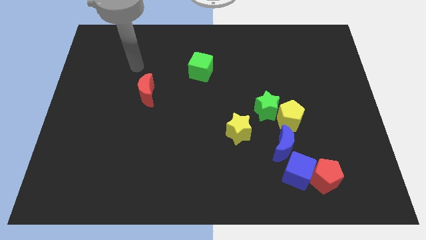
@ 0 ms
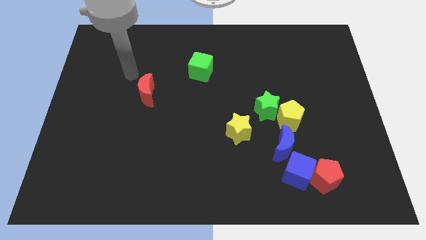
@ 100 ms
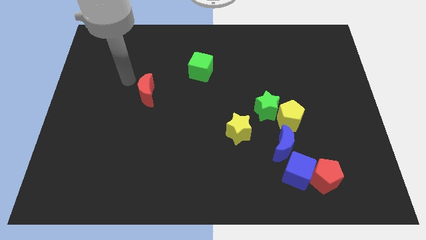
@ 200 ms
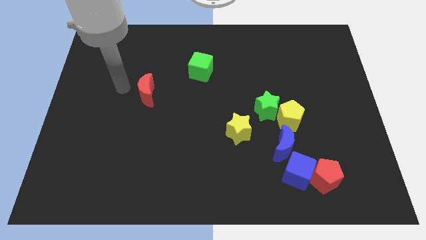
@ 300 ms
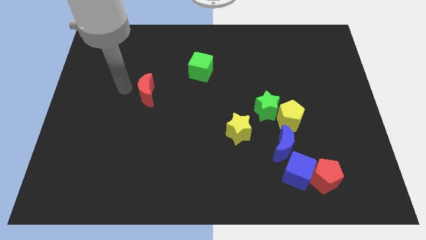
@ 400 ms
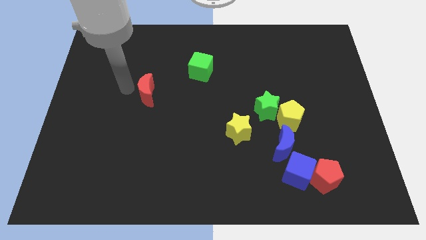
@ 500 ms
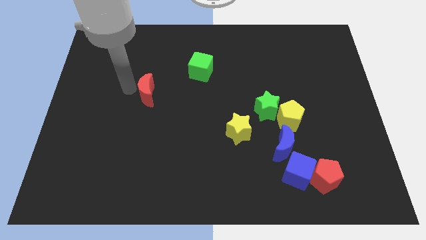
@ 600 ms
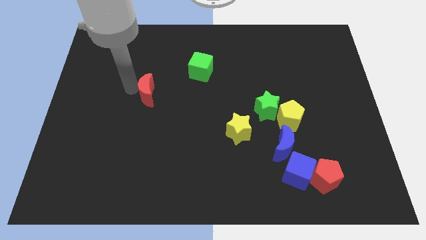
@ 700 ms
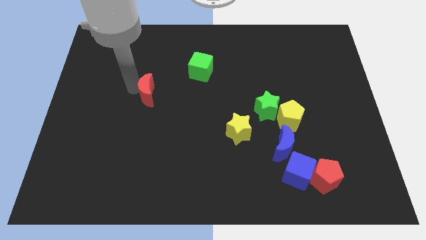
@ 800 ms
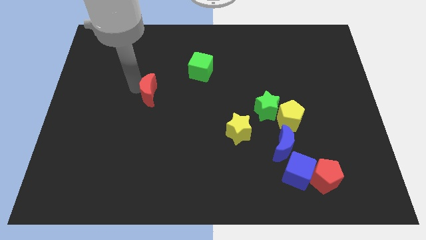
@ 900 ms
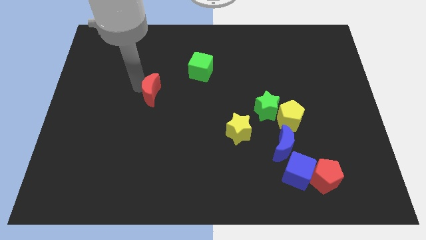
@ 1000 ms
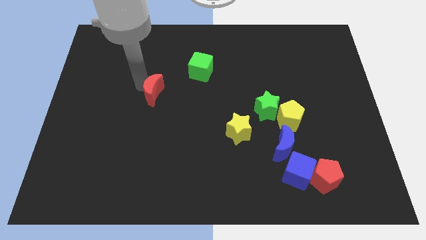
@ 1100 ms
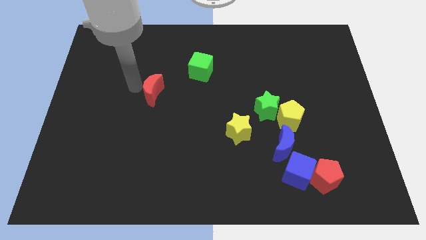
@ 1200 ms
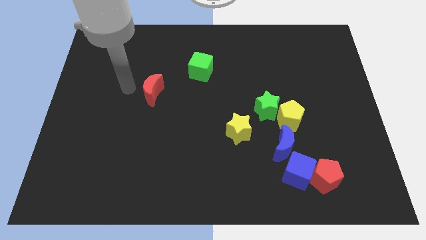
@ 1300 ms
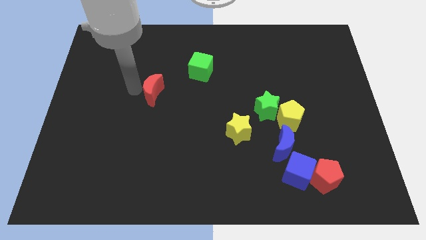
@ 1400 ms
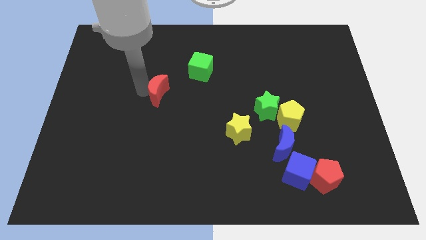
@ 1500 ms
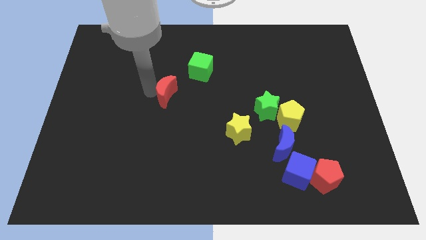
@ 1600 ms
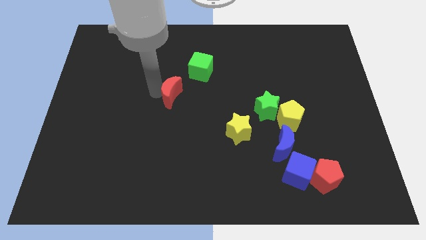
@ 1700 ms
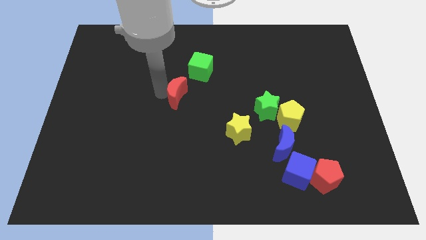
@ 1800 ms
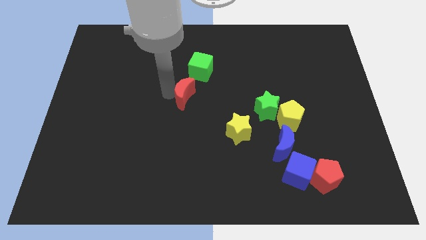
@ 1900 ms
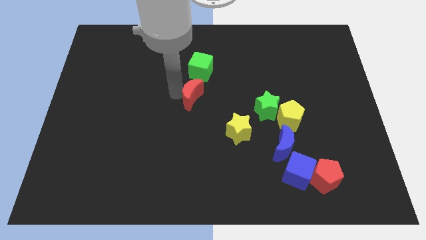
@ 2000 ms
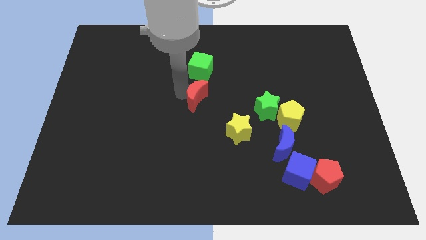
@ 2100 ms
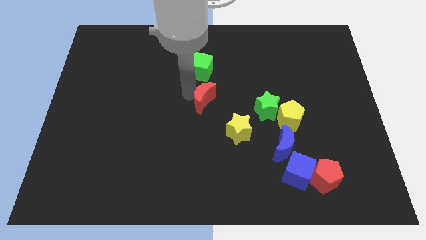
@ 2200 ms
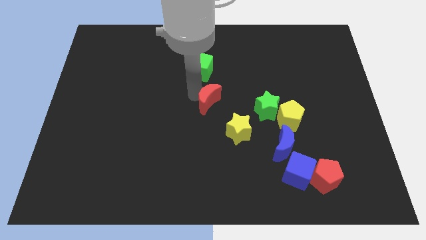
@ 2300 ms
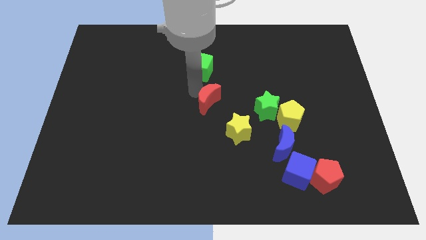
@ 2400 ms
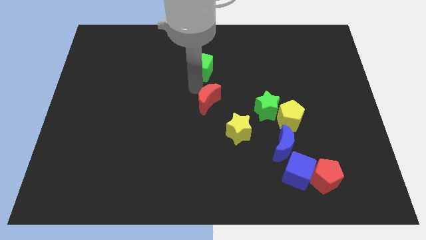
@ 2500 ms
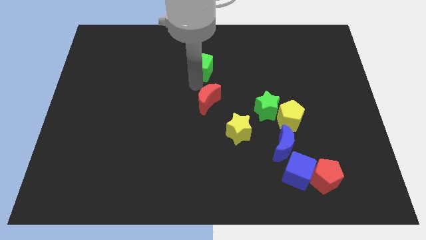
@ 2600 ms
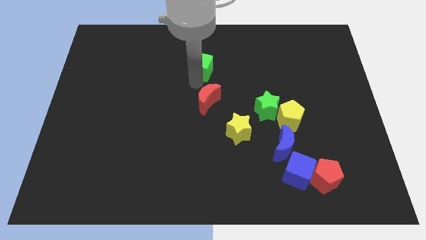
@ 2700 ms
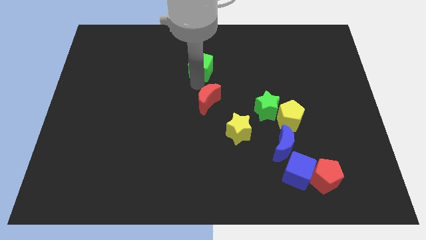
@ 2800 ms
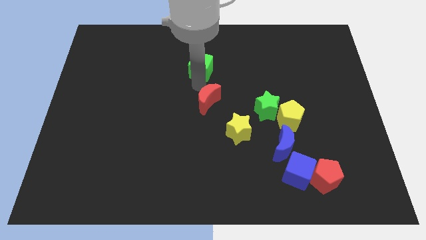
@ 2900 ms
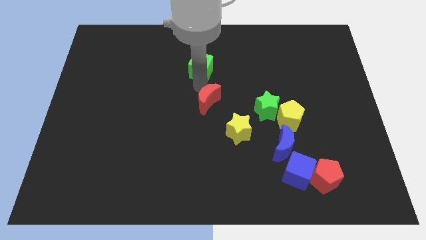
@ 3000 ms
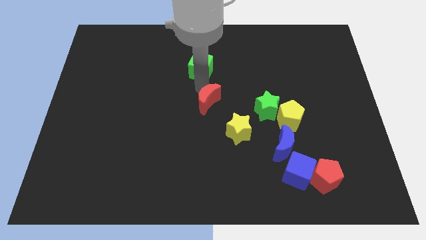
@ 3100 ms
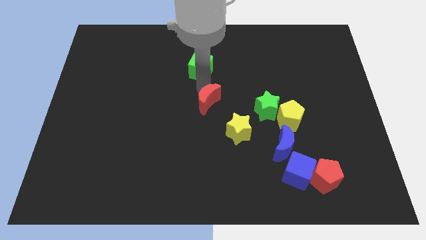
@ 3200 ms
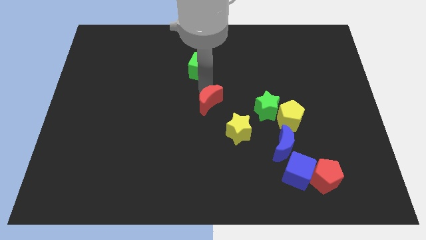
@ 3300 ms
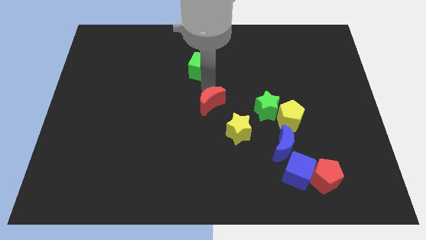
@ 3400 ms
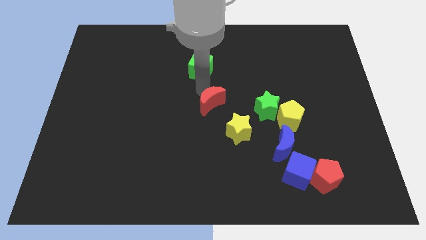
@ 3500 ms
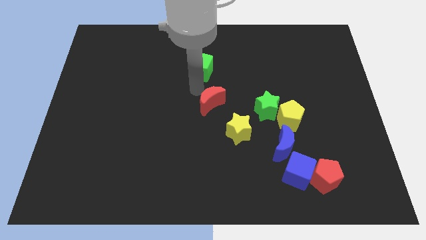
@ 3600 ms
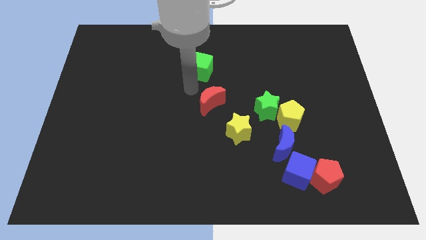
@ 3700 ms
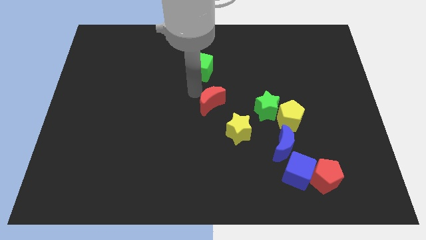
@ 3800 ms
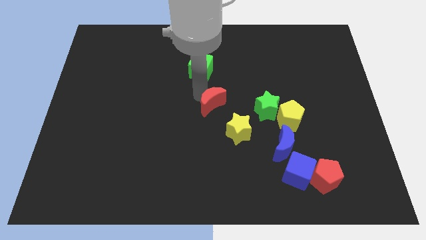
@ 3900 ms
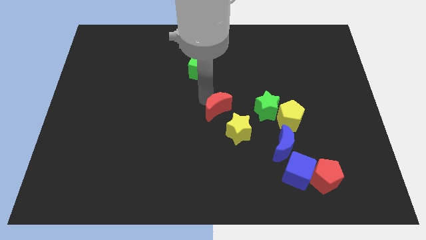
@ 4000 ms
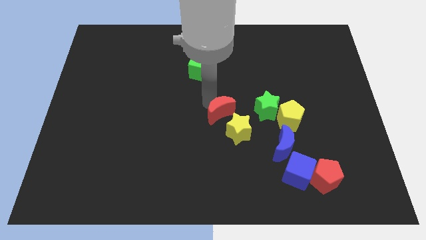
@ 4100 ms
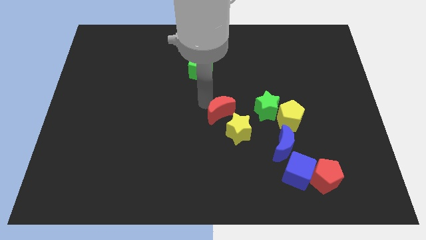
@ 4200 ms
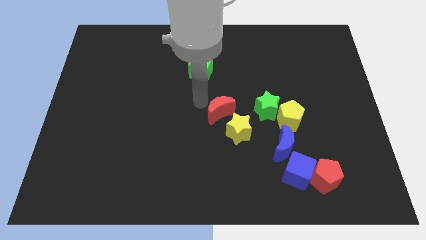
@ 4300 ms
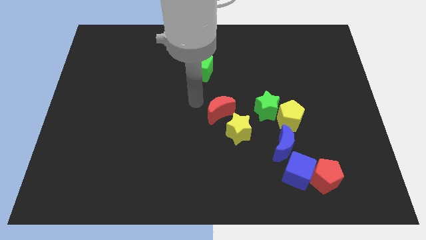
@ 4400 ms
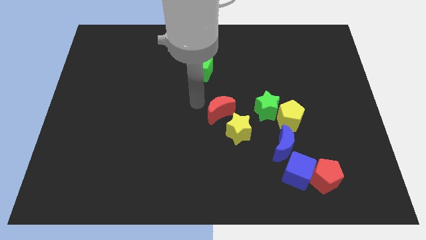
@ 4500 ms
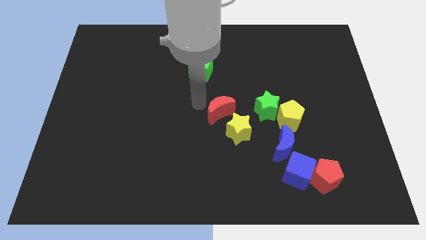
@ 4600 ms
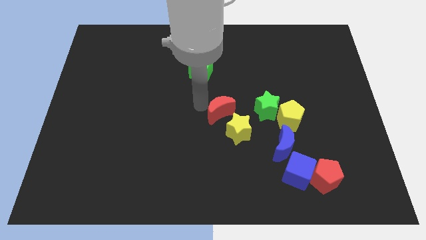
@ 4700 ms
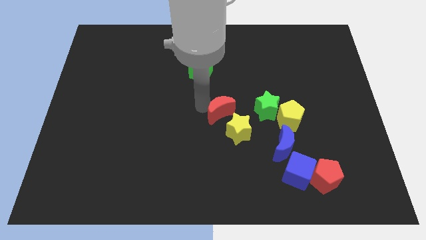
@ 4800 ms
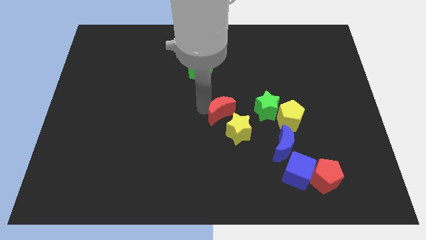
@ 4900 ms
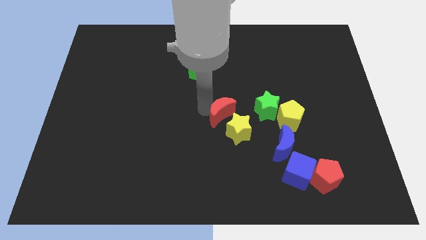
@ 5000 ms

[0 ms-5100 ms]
slide the red moon to the yellow star

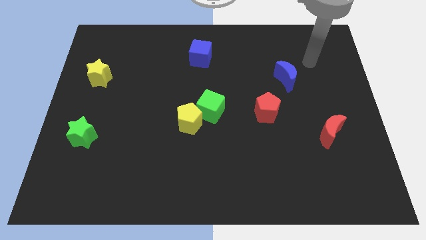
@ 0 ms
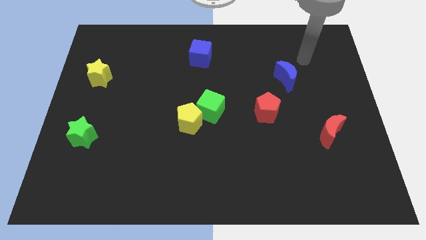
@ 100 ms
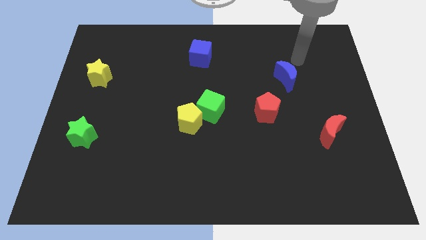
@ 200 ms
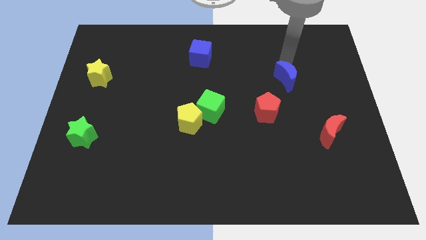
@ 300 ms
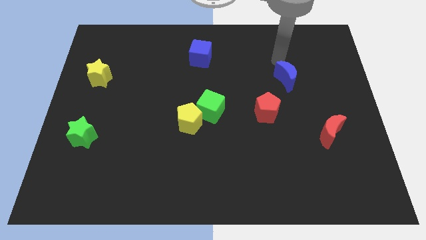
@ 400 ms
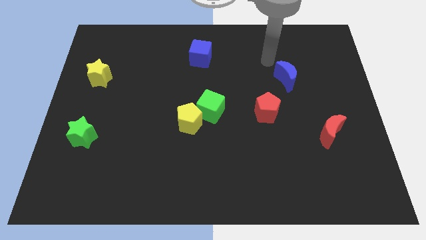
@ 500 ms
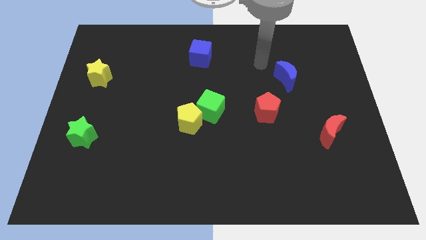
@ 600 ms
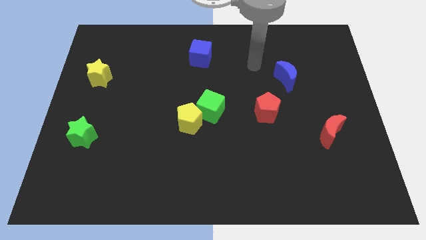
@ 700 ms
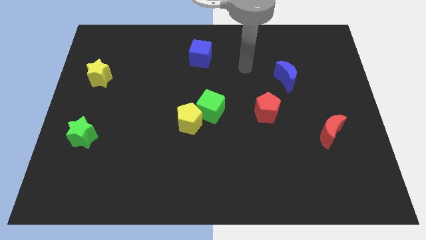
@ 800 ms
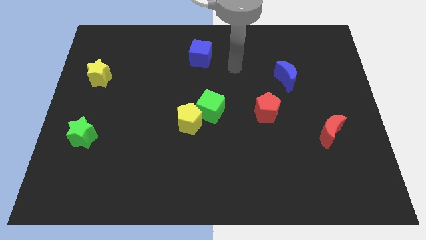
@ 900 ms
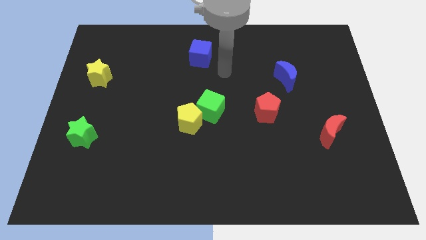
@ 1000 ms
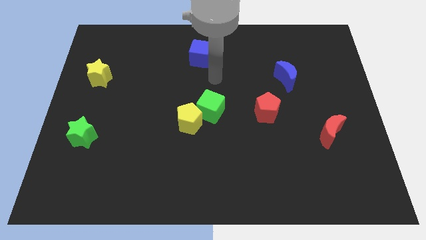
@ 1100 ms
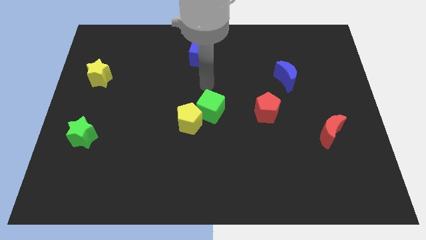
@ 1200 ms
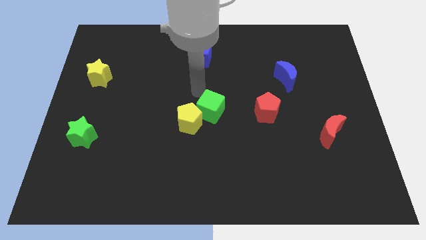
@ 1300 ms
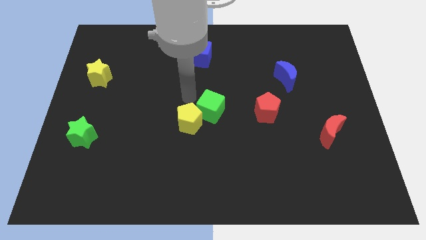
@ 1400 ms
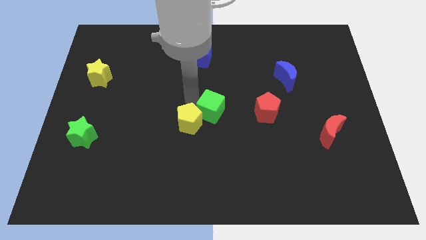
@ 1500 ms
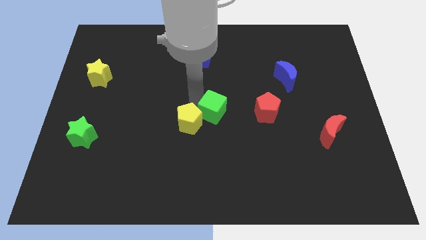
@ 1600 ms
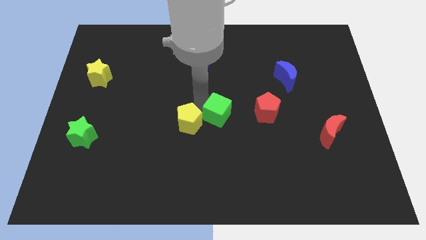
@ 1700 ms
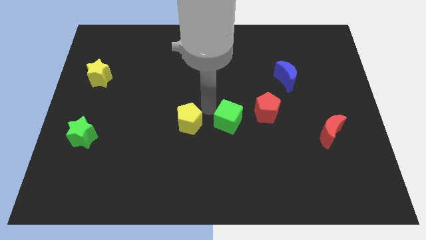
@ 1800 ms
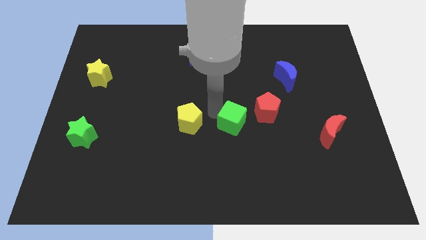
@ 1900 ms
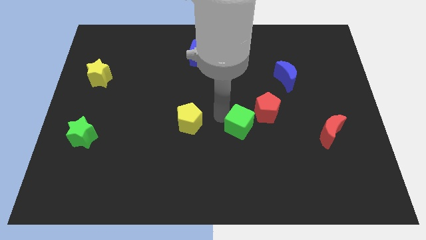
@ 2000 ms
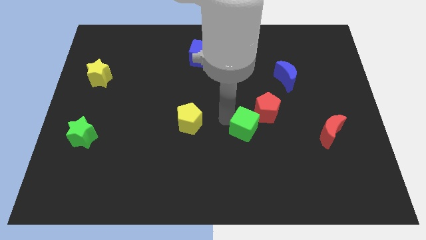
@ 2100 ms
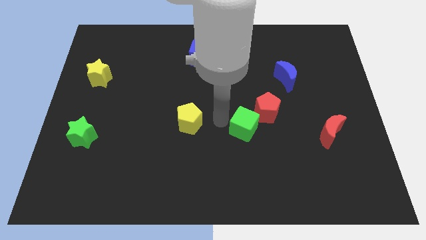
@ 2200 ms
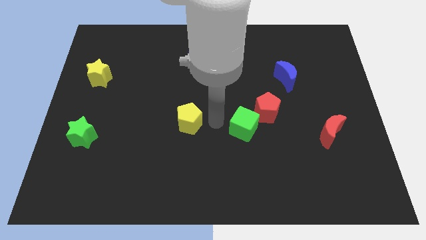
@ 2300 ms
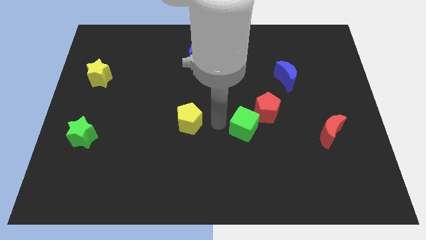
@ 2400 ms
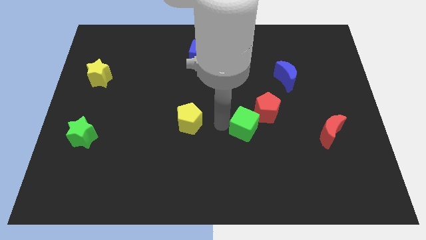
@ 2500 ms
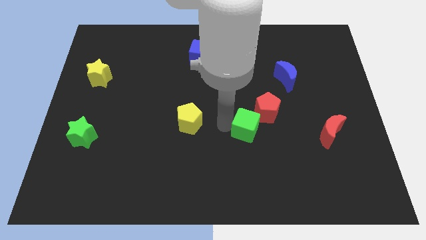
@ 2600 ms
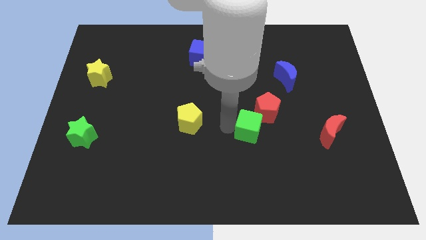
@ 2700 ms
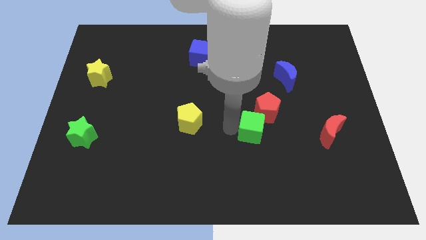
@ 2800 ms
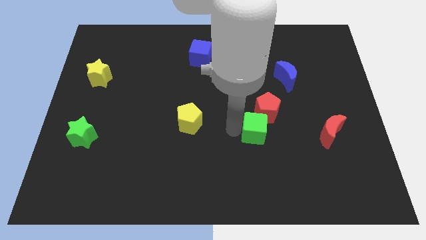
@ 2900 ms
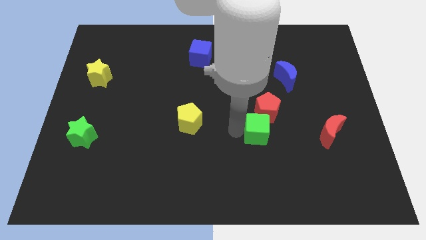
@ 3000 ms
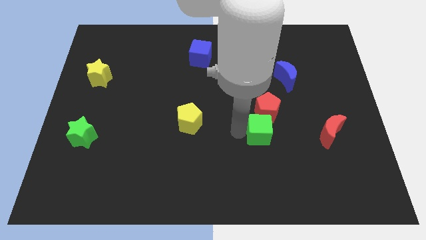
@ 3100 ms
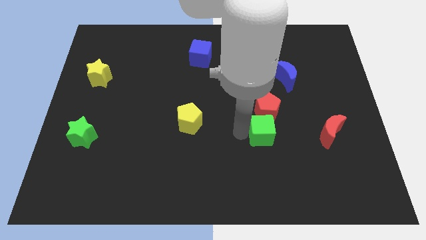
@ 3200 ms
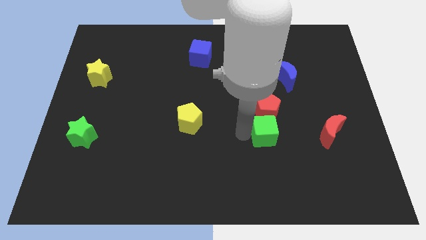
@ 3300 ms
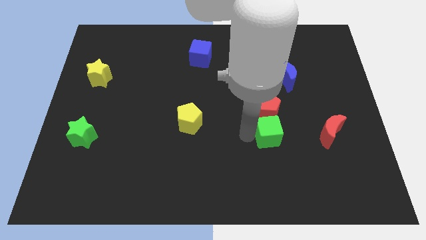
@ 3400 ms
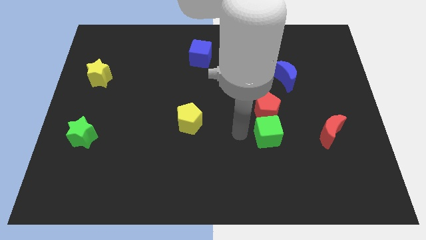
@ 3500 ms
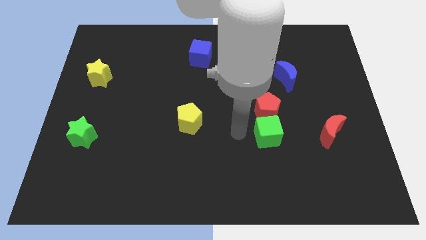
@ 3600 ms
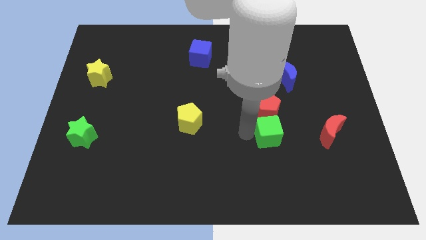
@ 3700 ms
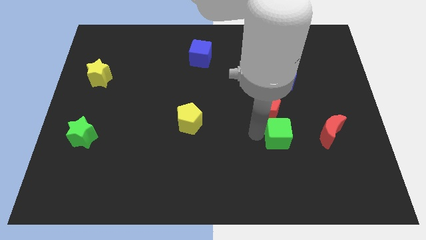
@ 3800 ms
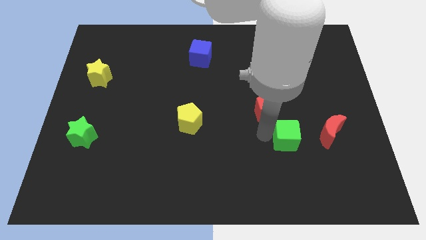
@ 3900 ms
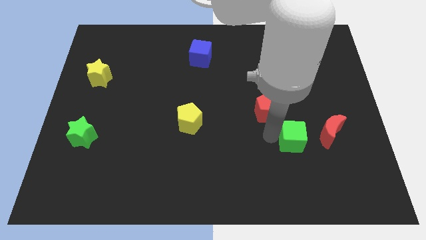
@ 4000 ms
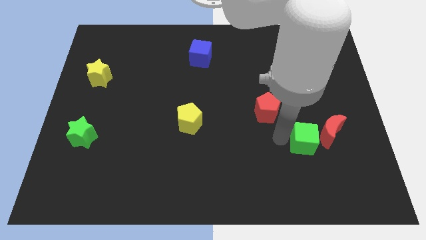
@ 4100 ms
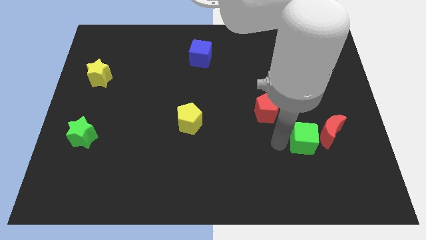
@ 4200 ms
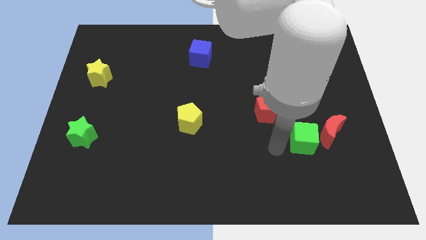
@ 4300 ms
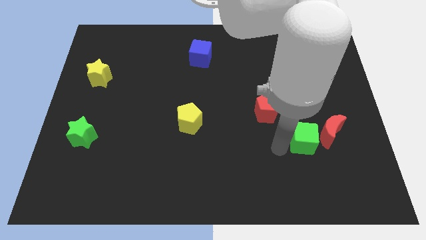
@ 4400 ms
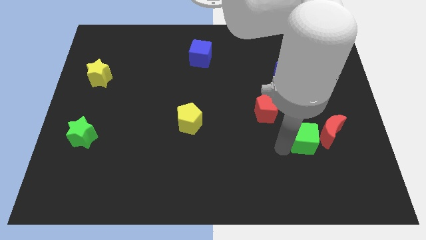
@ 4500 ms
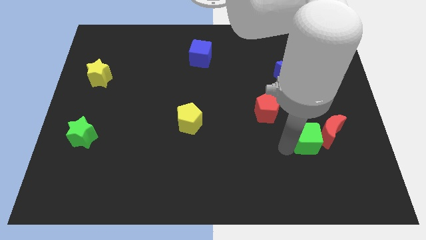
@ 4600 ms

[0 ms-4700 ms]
move the green cube next to the red moon
